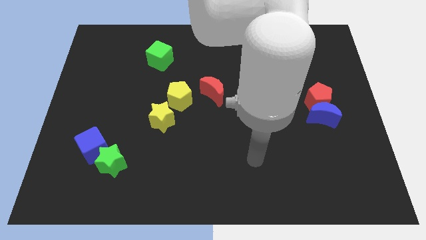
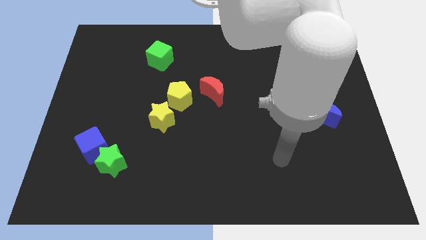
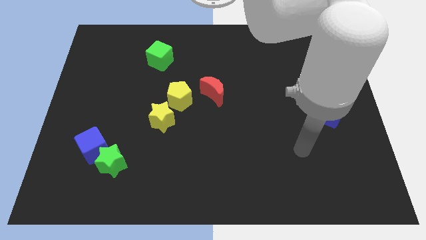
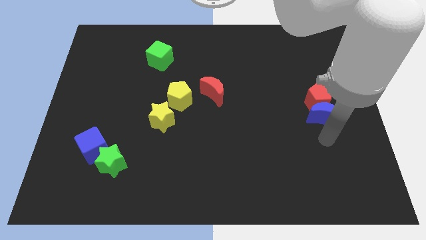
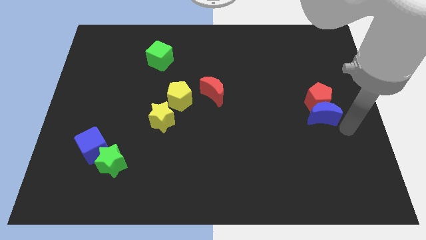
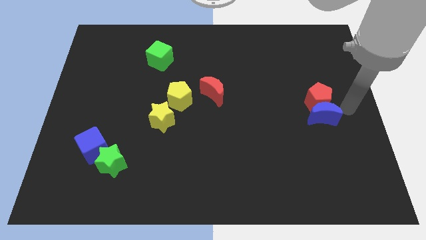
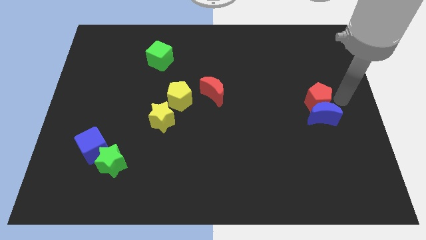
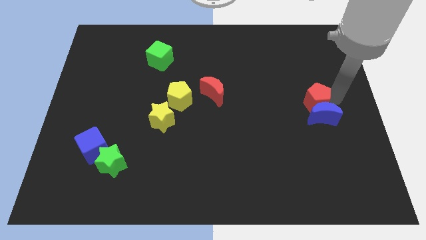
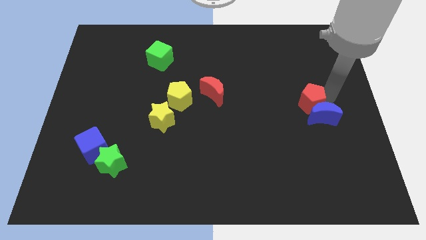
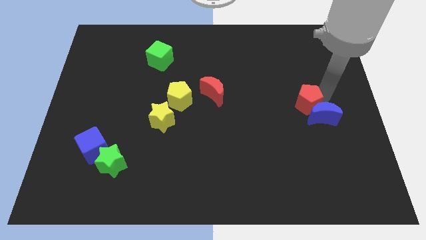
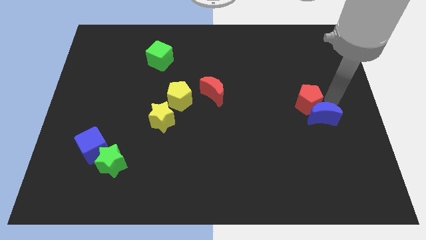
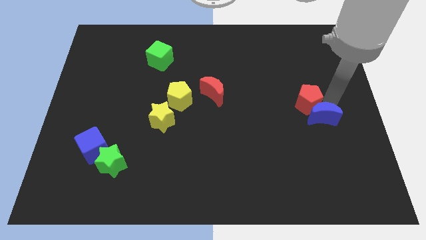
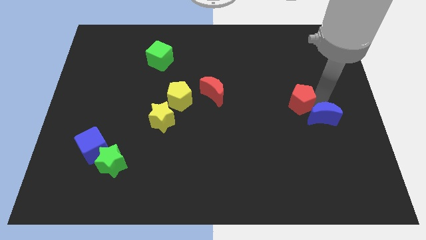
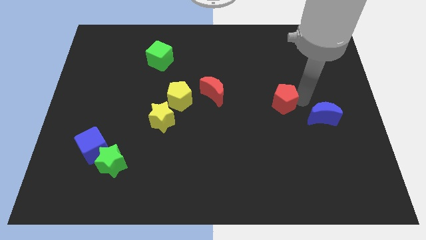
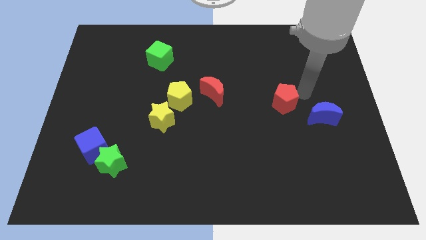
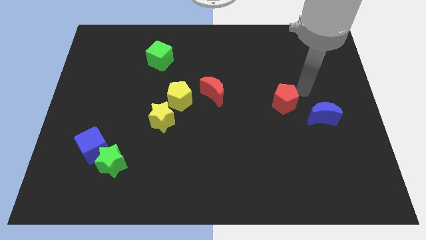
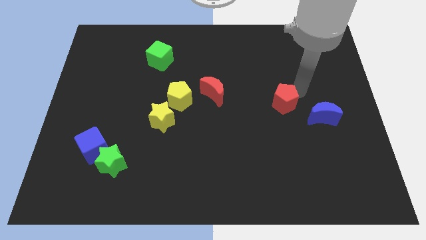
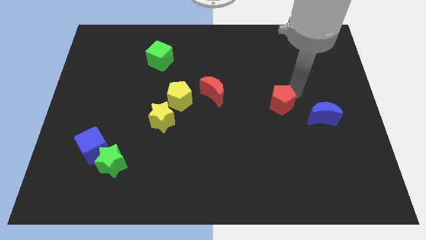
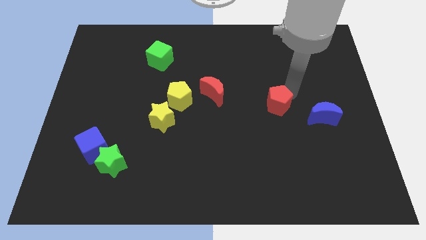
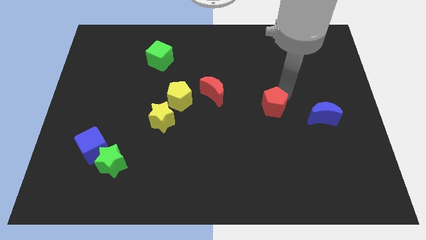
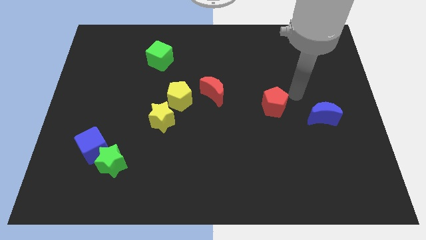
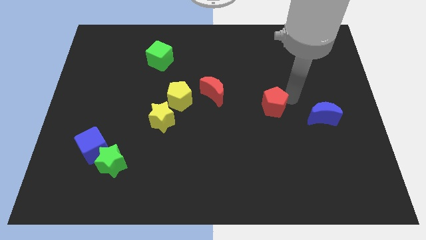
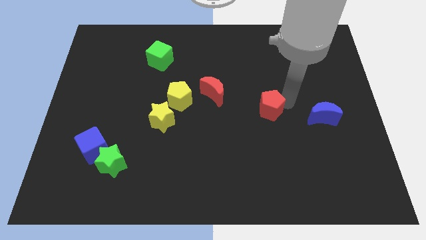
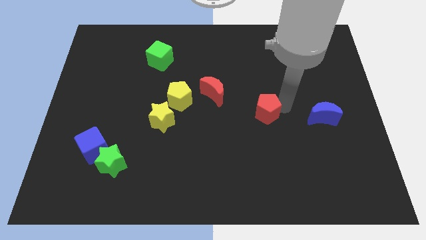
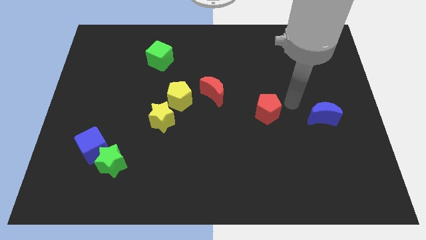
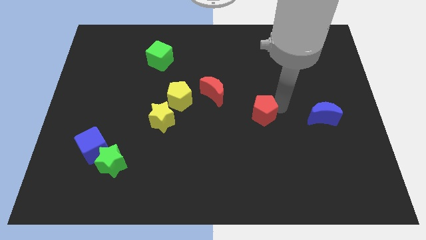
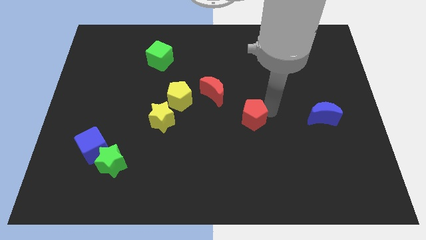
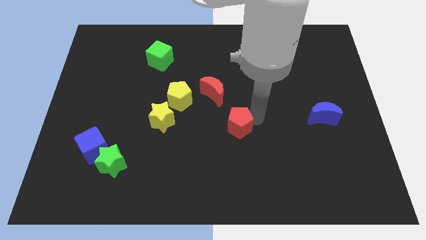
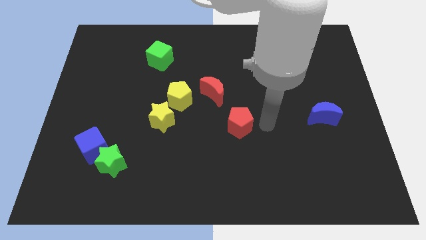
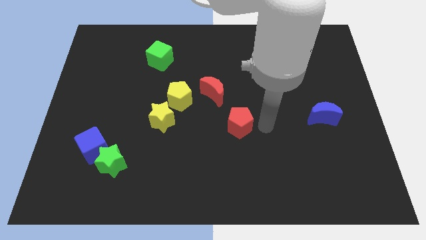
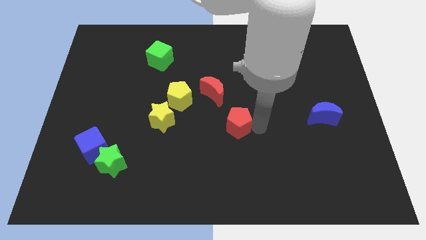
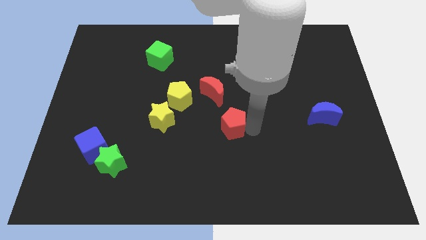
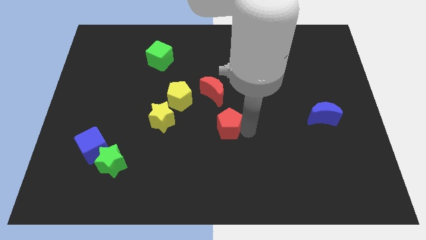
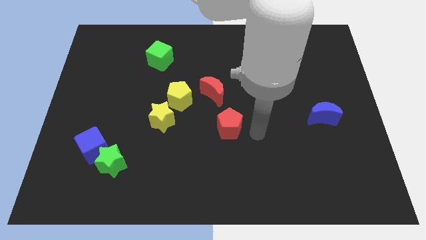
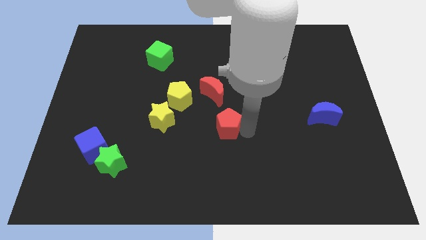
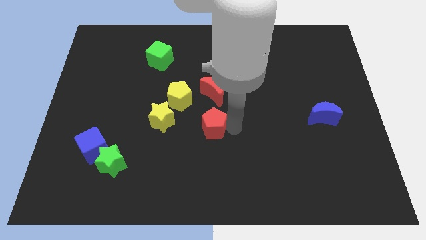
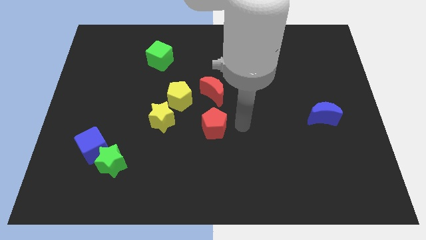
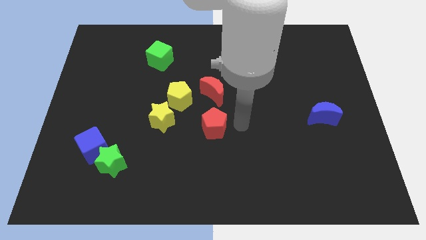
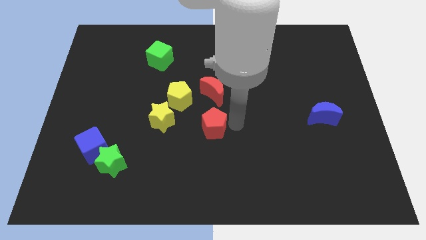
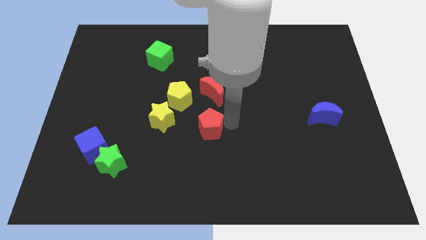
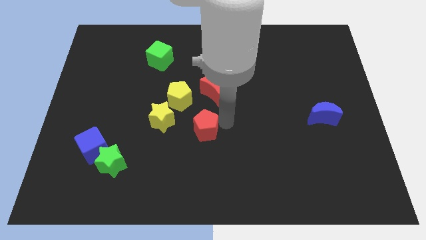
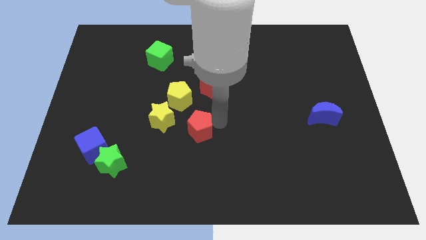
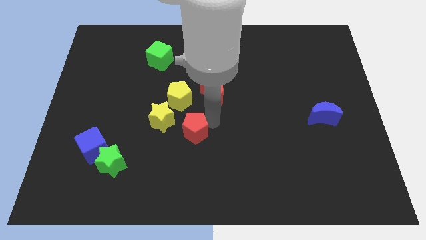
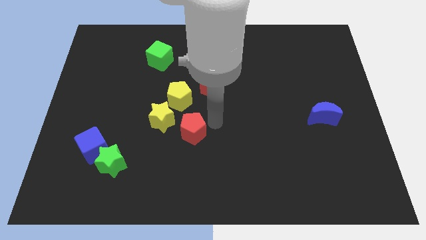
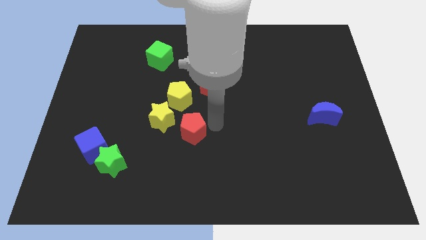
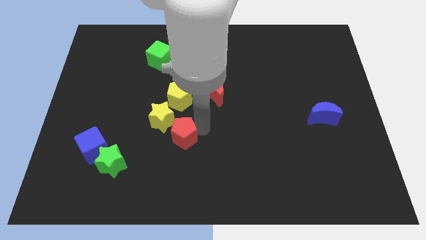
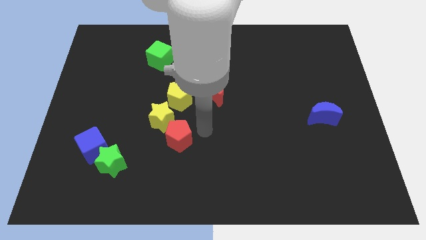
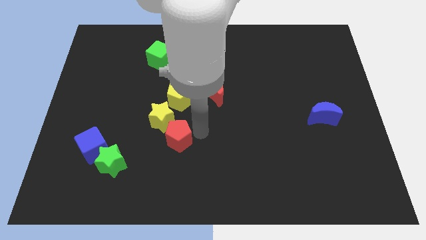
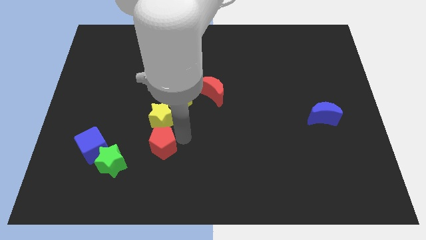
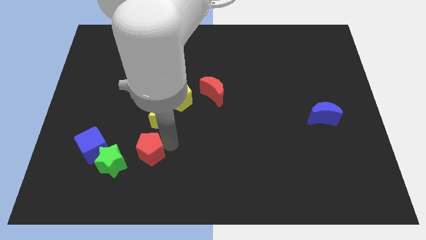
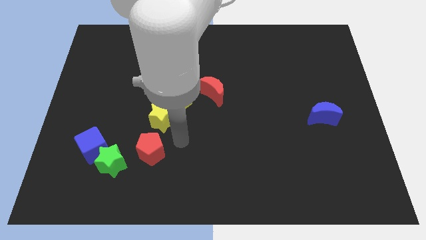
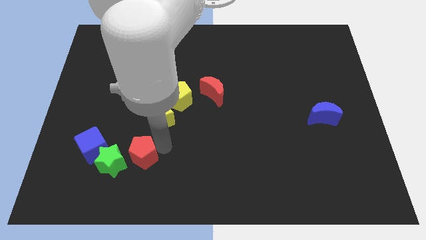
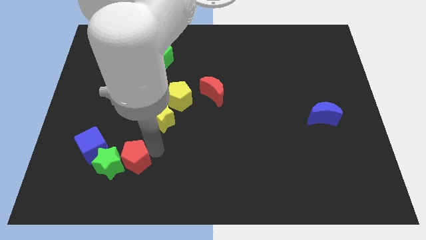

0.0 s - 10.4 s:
move the red pentagon to the green star

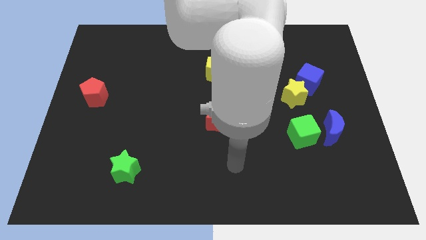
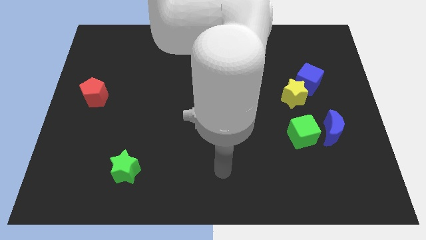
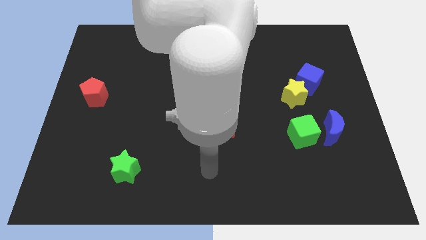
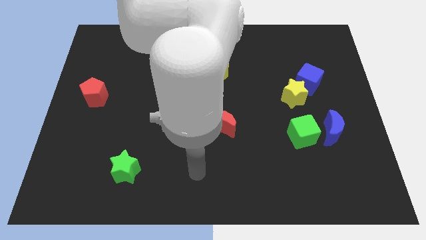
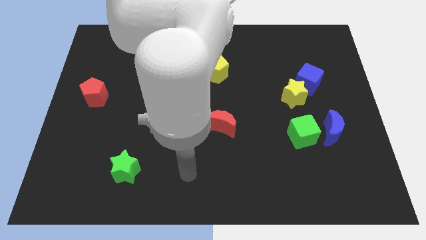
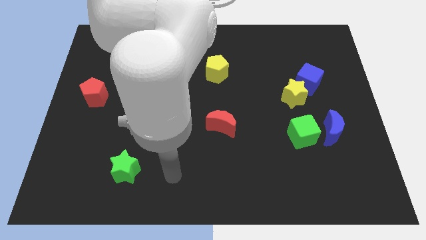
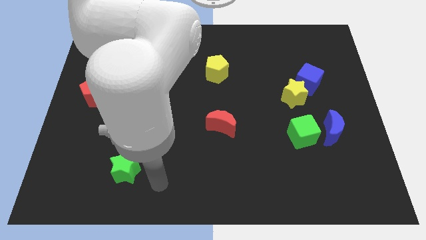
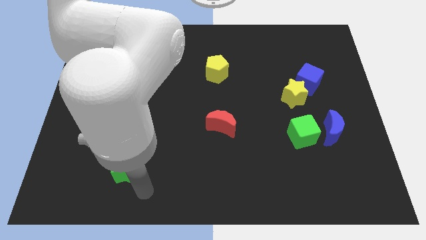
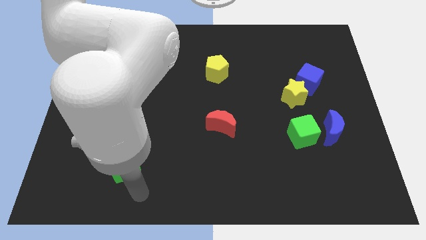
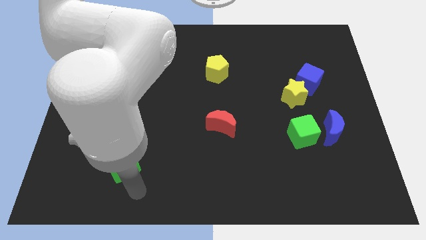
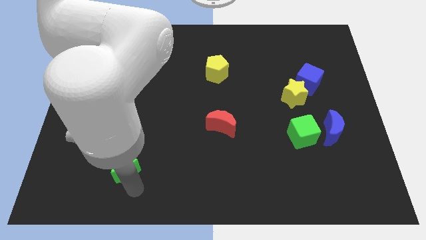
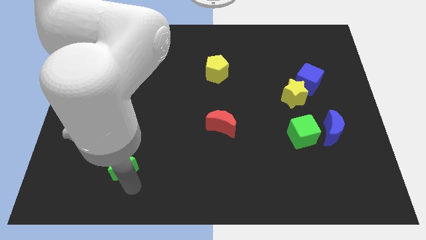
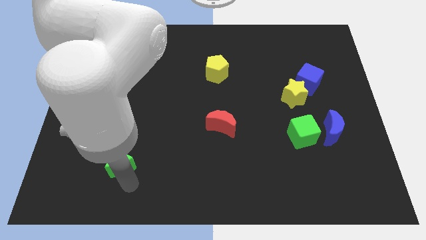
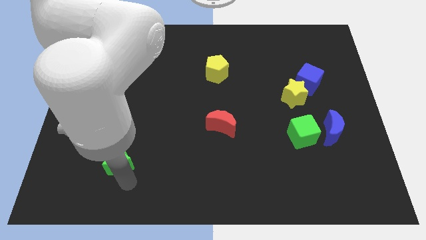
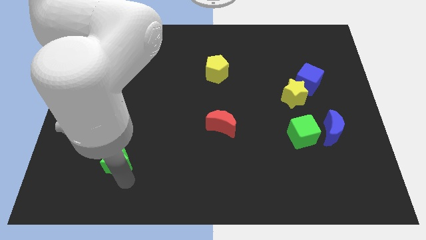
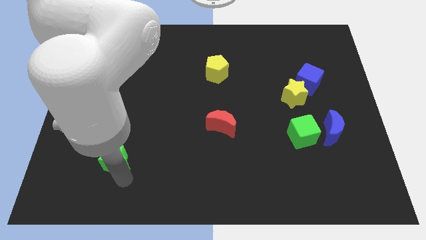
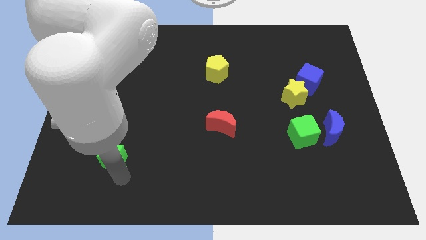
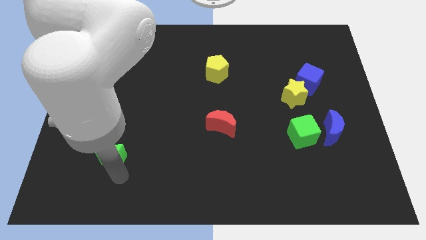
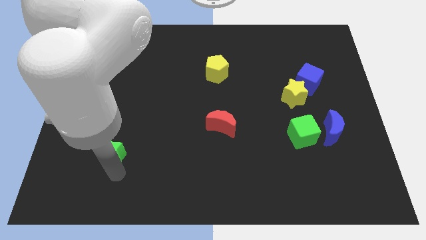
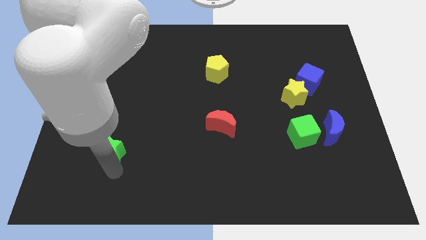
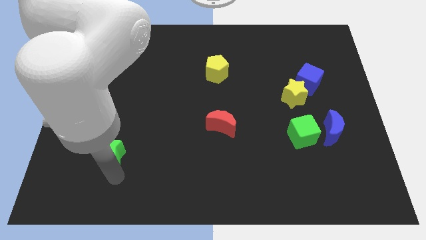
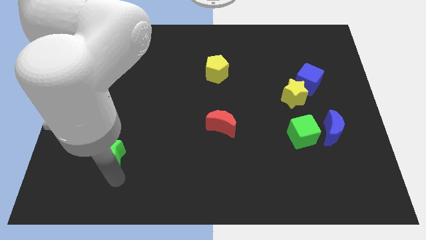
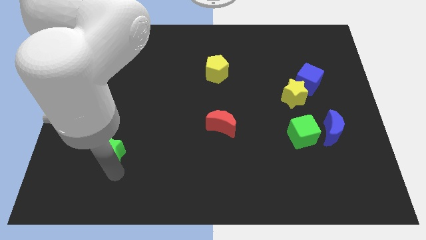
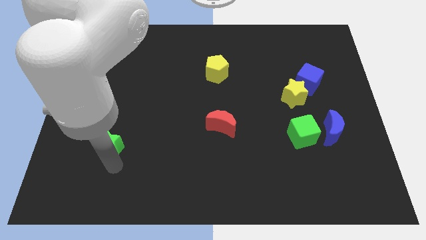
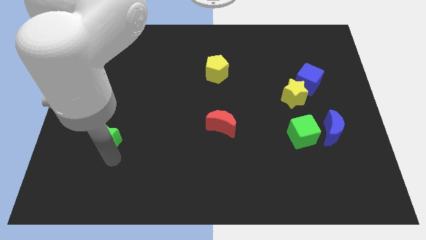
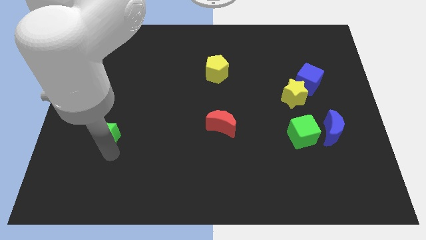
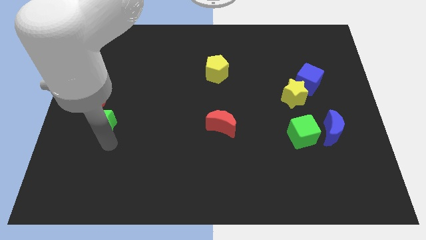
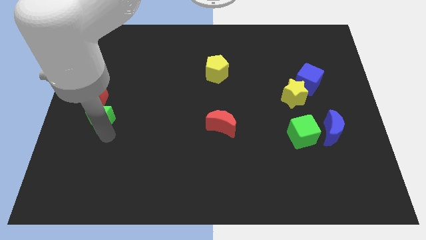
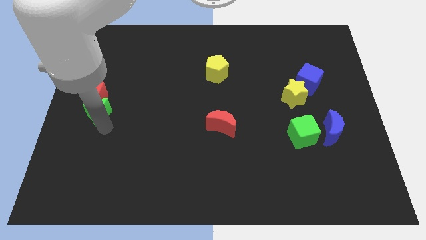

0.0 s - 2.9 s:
move the green star next to the red pentagon
